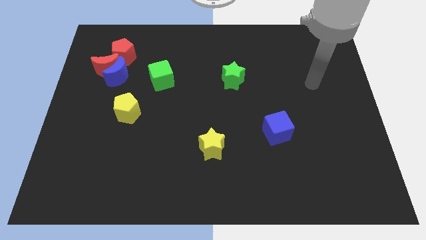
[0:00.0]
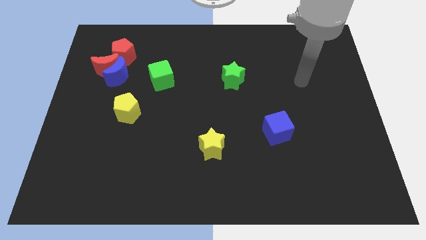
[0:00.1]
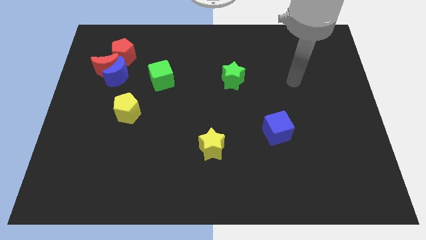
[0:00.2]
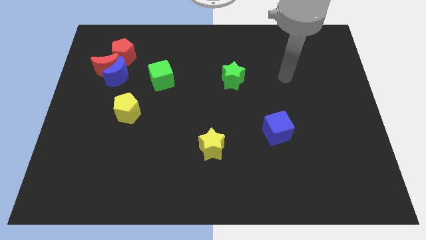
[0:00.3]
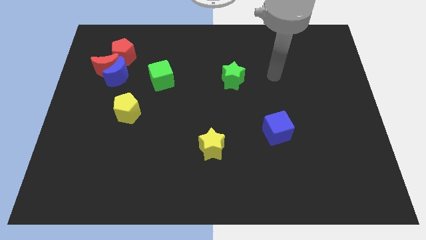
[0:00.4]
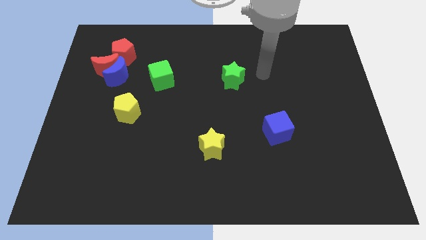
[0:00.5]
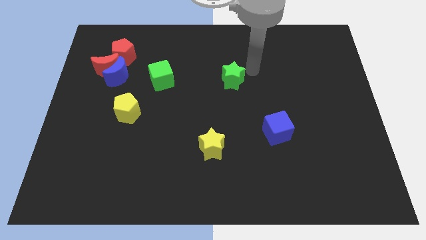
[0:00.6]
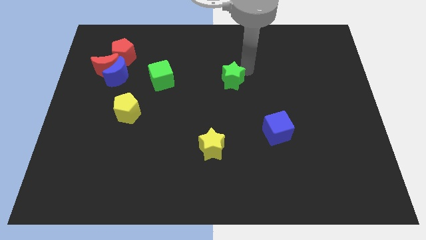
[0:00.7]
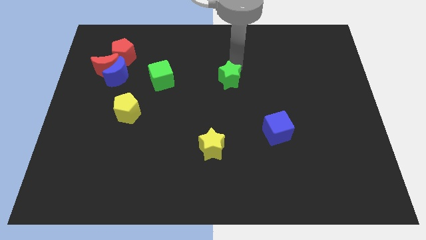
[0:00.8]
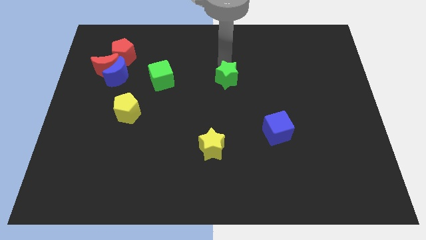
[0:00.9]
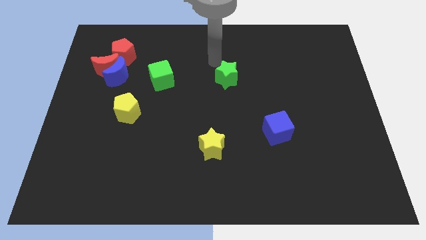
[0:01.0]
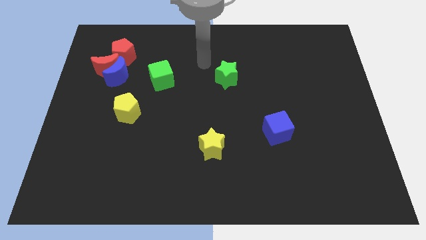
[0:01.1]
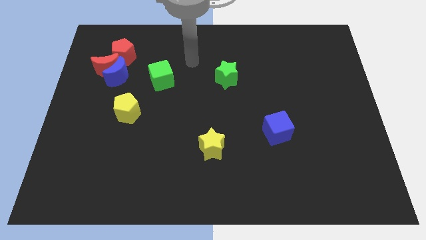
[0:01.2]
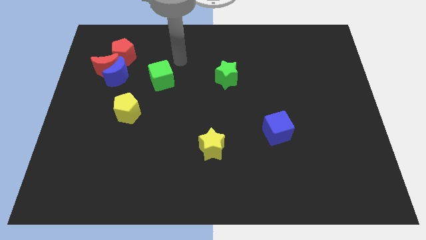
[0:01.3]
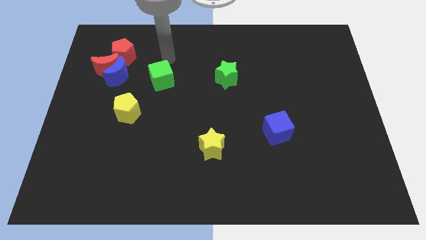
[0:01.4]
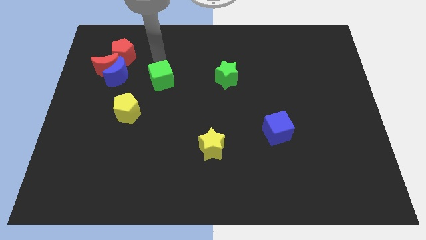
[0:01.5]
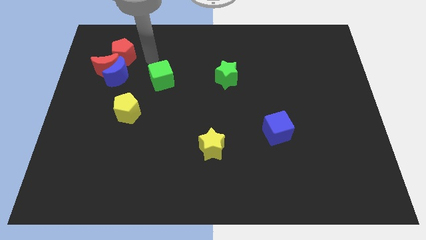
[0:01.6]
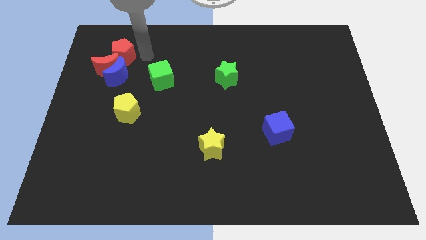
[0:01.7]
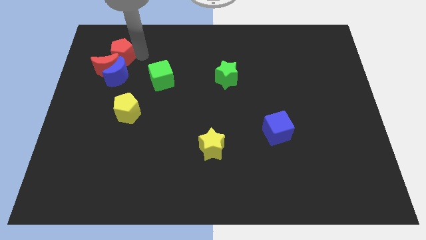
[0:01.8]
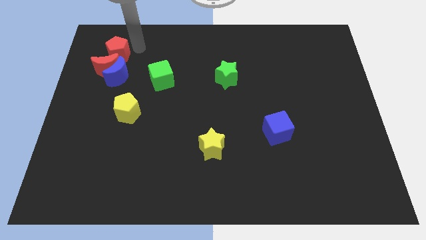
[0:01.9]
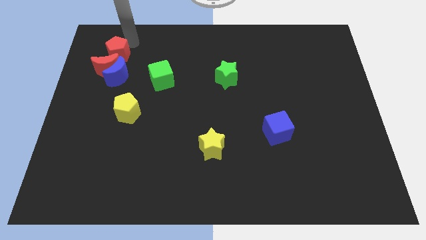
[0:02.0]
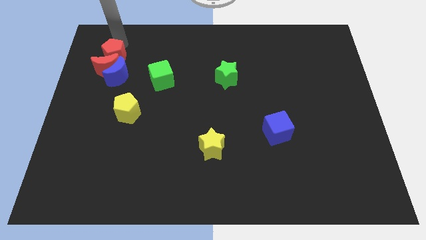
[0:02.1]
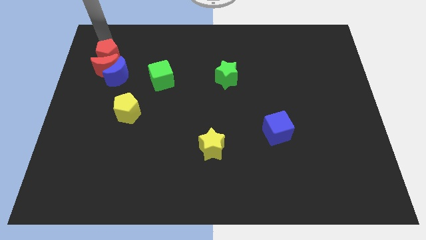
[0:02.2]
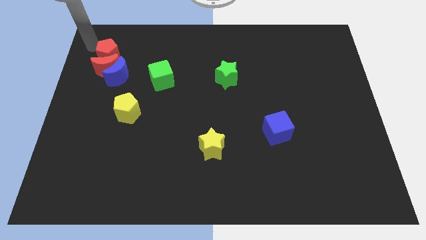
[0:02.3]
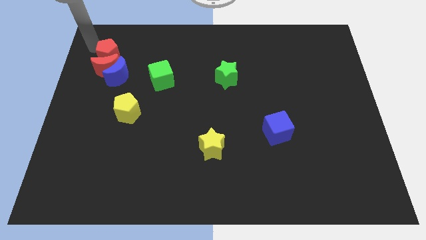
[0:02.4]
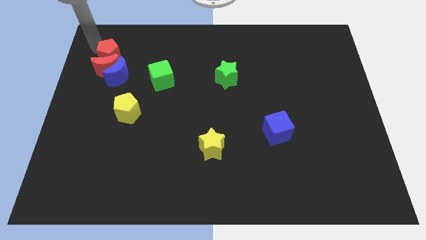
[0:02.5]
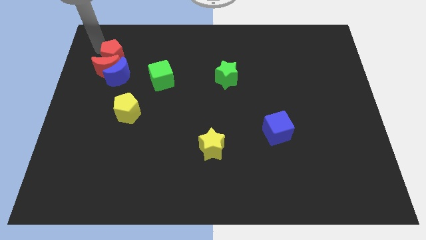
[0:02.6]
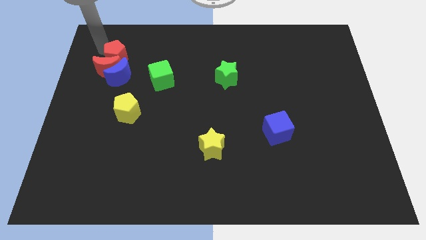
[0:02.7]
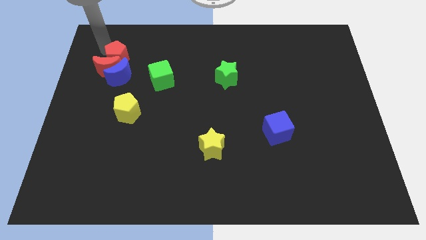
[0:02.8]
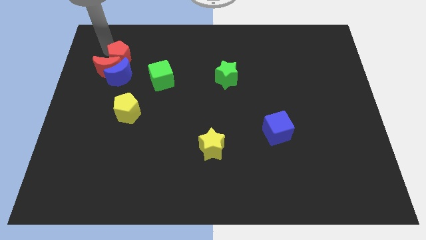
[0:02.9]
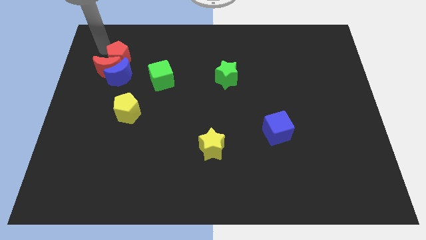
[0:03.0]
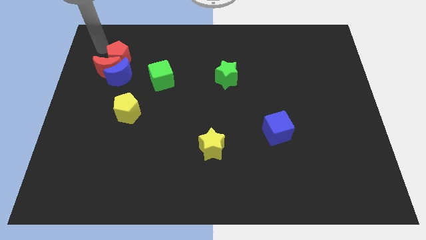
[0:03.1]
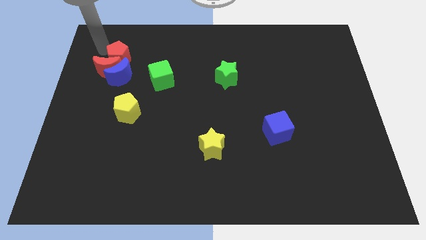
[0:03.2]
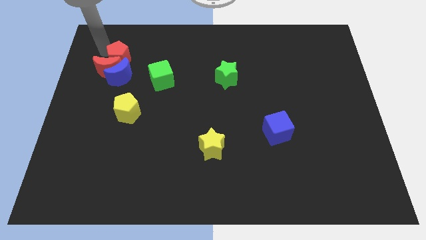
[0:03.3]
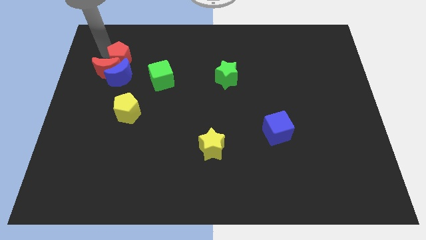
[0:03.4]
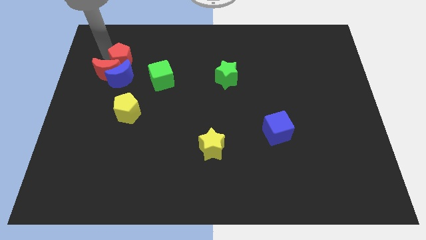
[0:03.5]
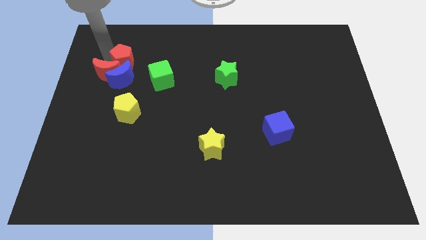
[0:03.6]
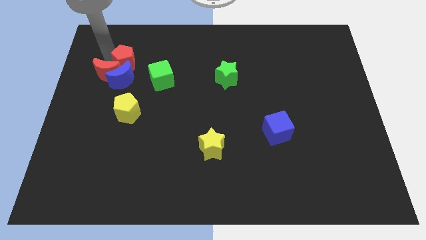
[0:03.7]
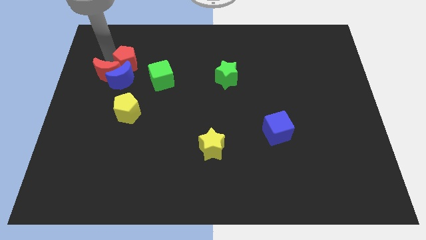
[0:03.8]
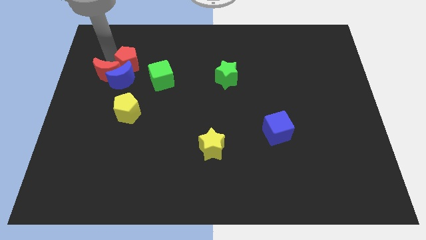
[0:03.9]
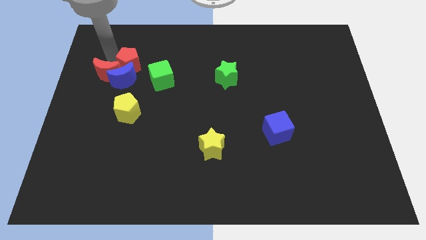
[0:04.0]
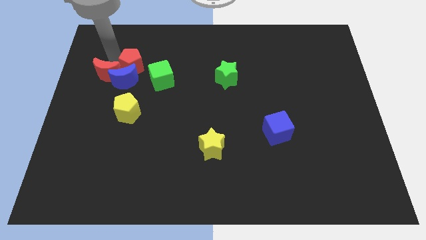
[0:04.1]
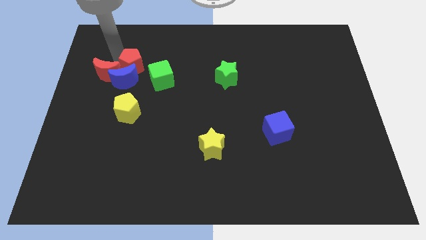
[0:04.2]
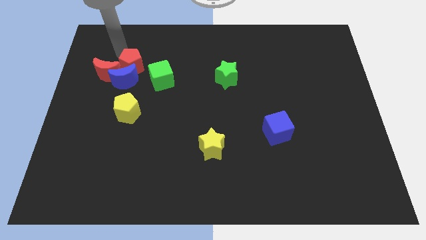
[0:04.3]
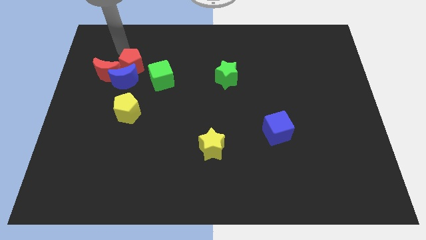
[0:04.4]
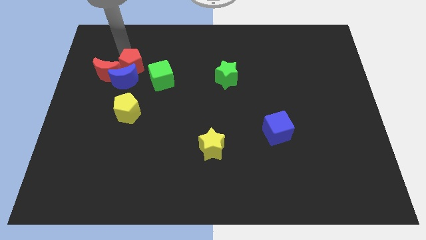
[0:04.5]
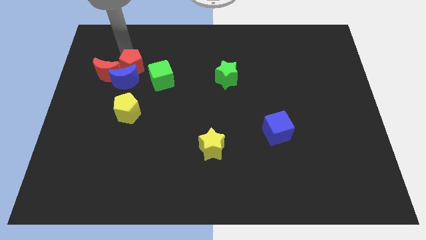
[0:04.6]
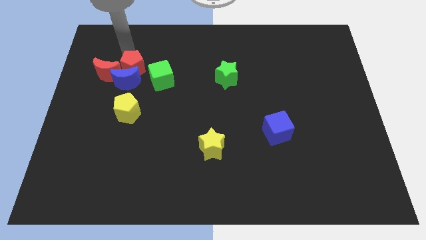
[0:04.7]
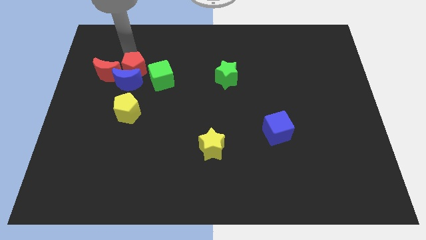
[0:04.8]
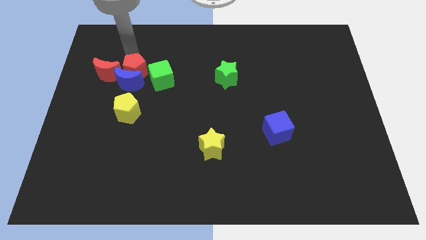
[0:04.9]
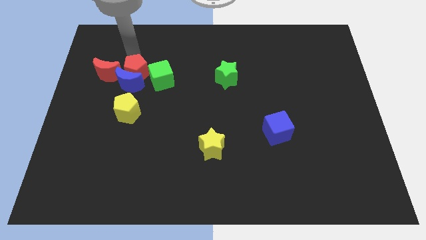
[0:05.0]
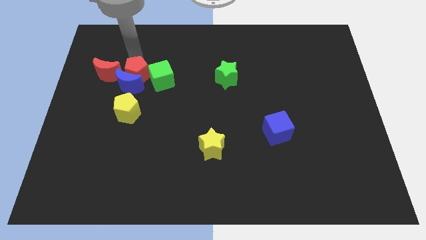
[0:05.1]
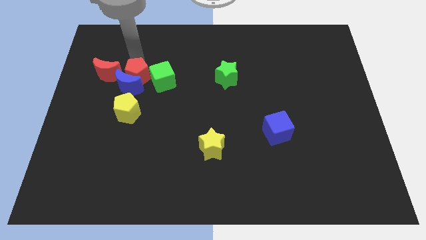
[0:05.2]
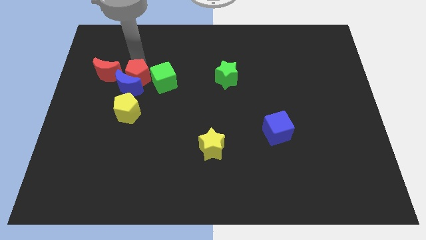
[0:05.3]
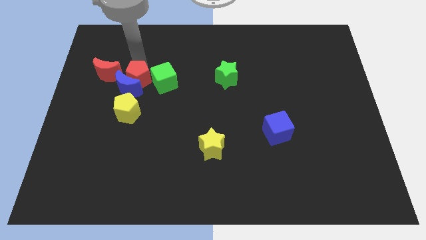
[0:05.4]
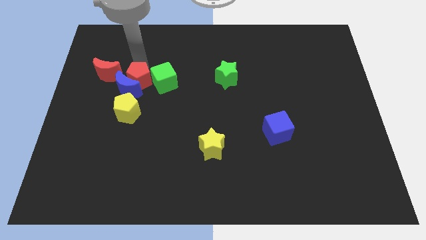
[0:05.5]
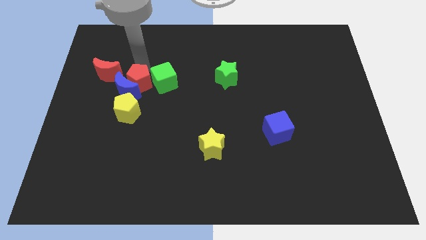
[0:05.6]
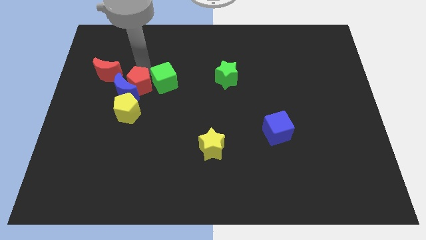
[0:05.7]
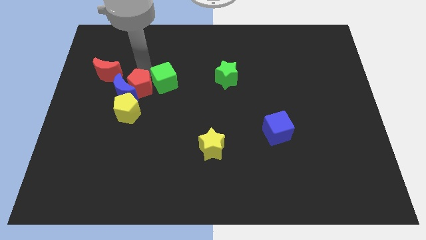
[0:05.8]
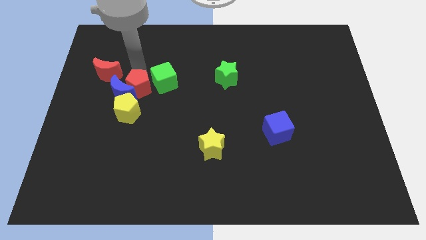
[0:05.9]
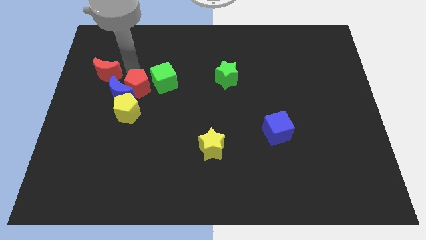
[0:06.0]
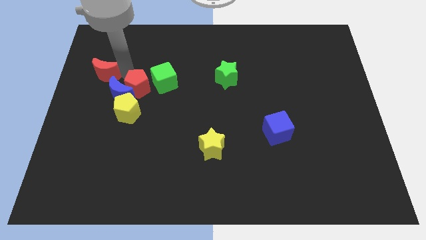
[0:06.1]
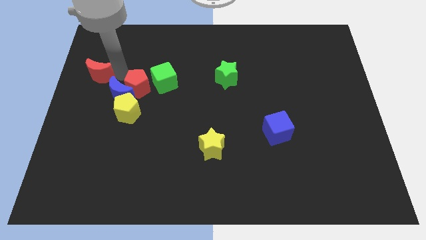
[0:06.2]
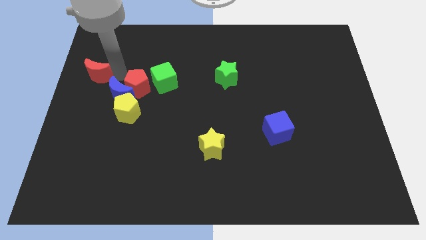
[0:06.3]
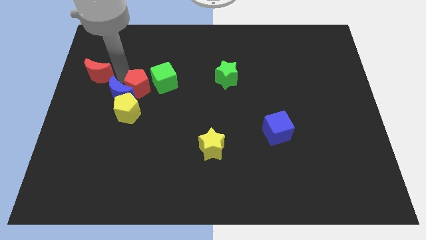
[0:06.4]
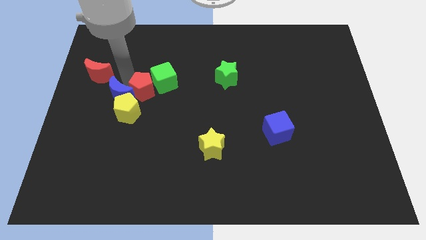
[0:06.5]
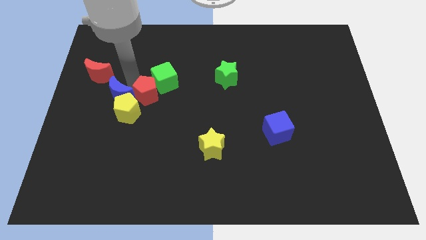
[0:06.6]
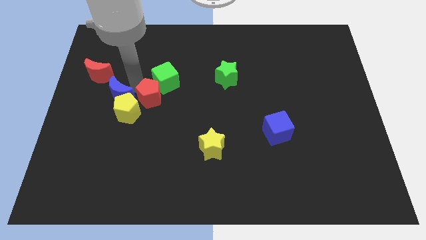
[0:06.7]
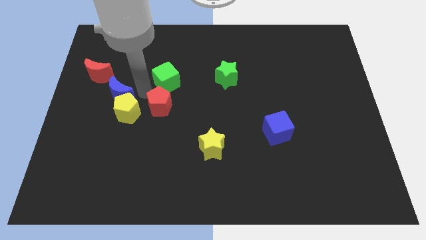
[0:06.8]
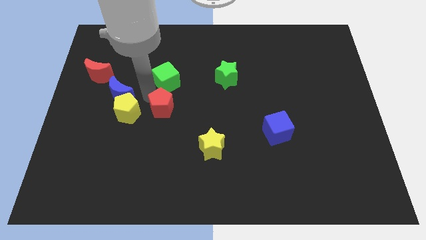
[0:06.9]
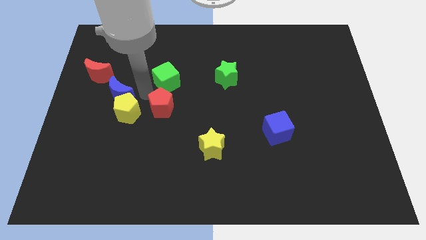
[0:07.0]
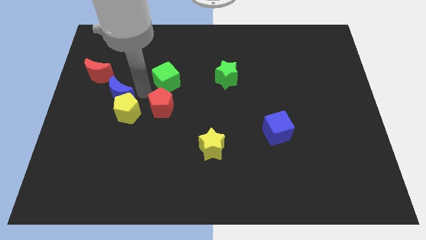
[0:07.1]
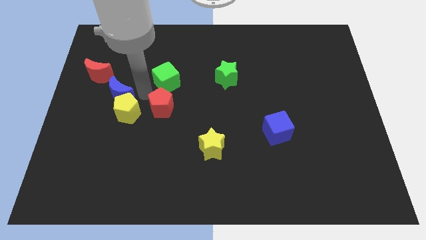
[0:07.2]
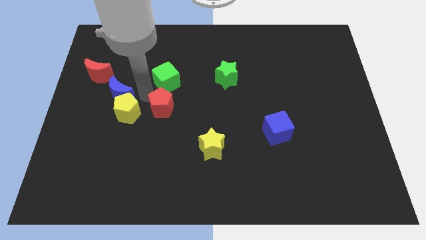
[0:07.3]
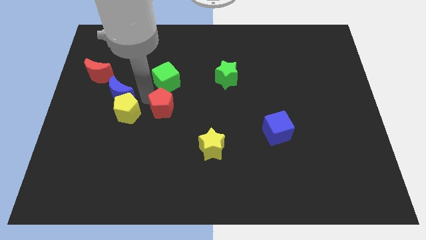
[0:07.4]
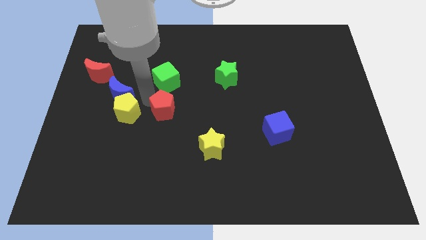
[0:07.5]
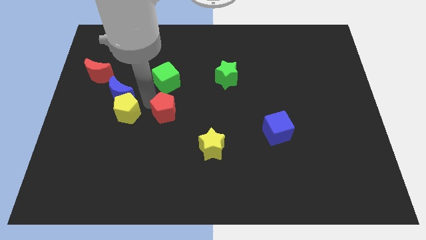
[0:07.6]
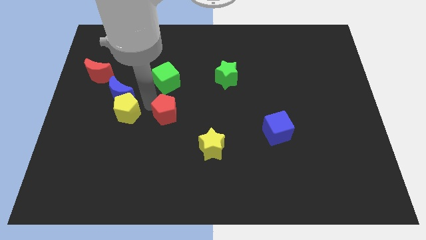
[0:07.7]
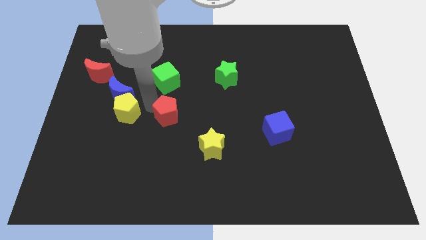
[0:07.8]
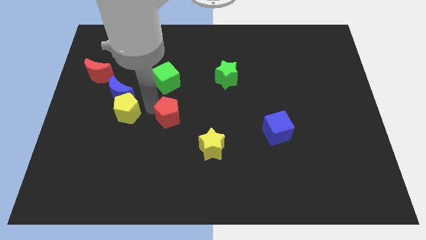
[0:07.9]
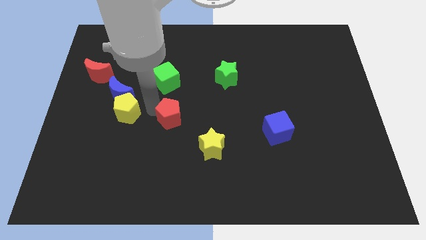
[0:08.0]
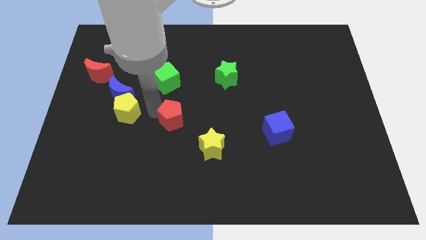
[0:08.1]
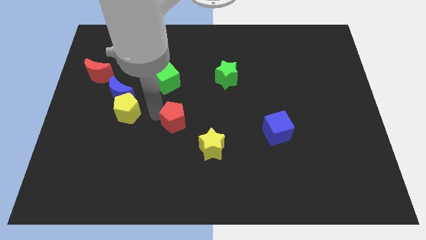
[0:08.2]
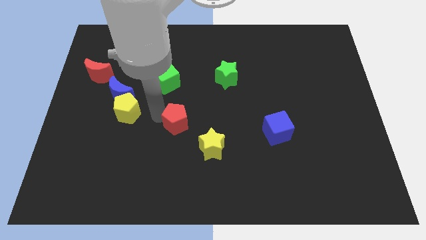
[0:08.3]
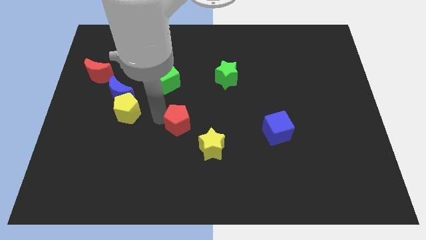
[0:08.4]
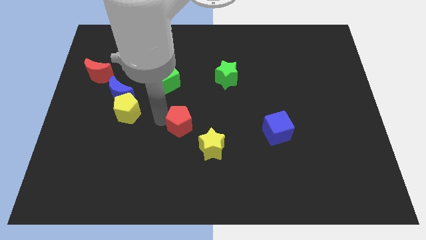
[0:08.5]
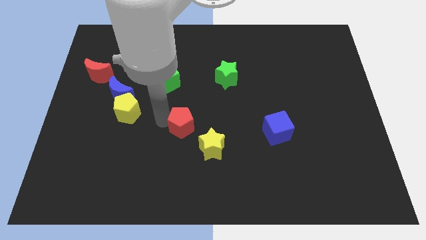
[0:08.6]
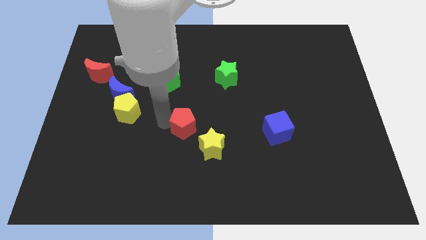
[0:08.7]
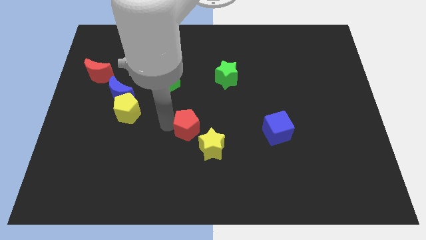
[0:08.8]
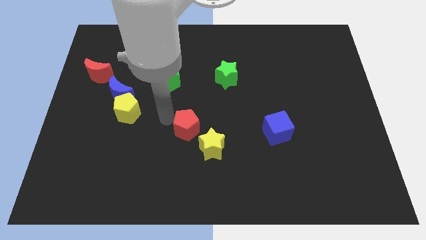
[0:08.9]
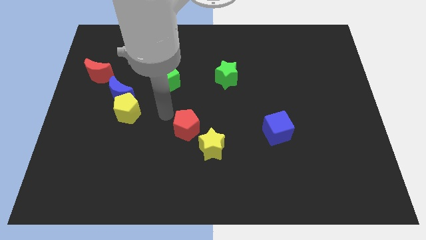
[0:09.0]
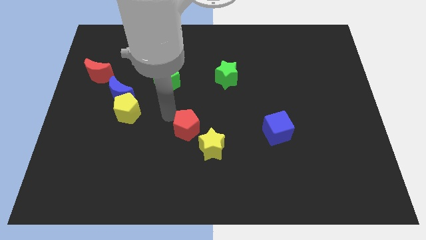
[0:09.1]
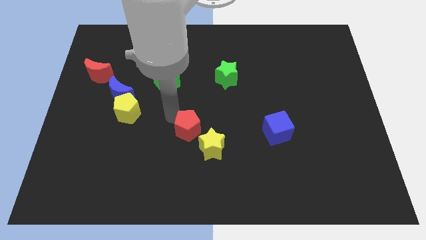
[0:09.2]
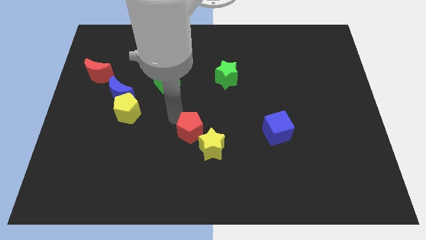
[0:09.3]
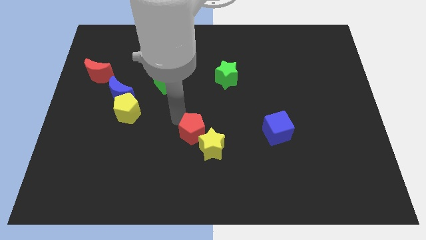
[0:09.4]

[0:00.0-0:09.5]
slide the red pentagon towards the yellow star
